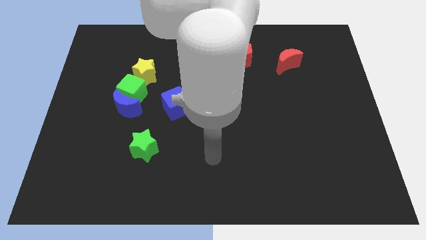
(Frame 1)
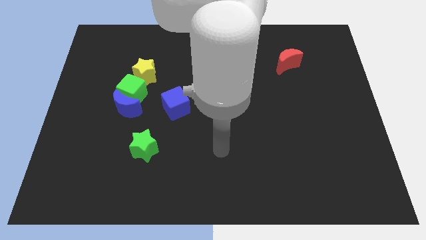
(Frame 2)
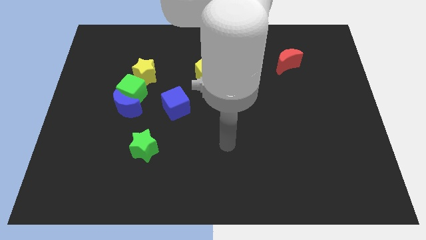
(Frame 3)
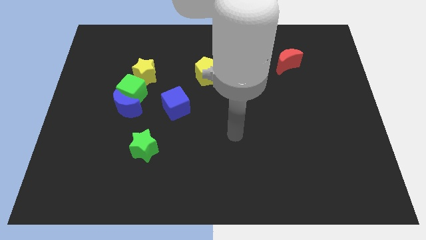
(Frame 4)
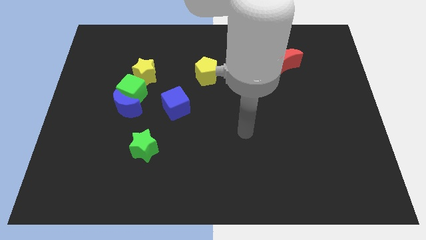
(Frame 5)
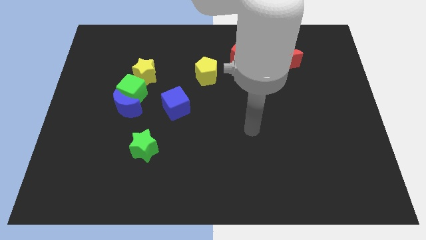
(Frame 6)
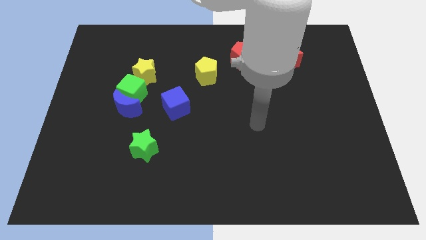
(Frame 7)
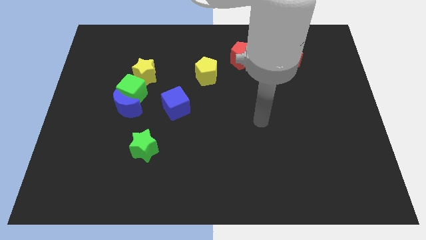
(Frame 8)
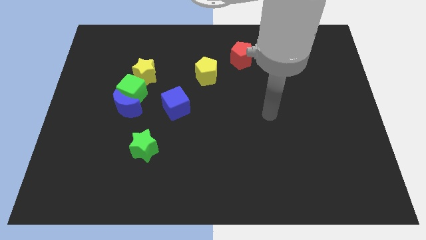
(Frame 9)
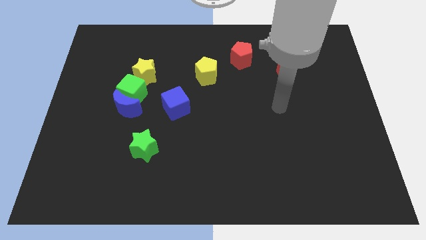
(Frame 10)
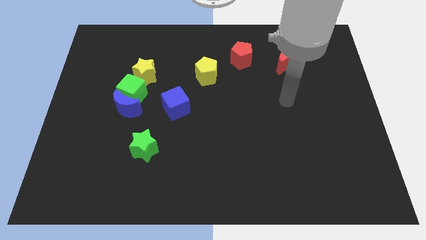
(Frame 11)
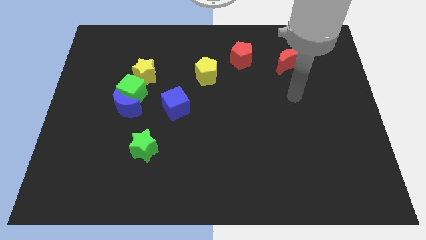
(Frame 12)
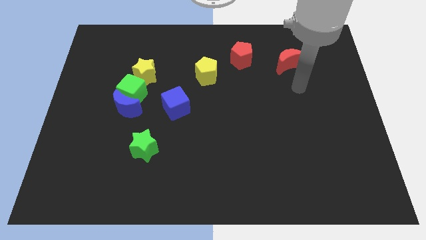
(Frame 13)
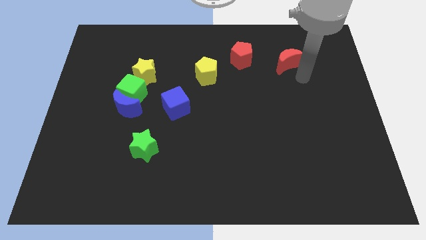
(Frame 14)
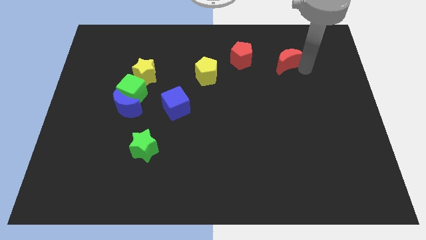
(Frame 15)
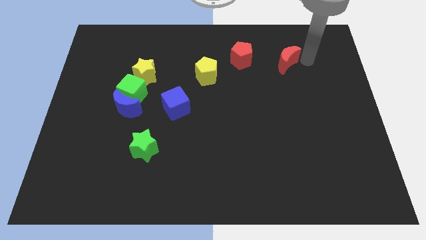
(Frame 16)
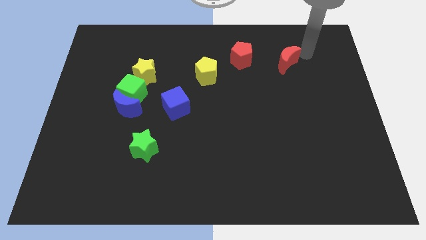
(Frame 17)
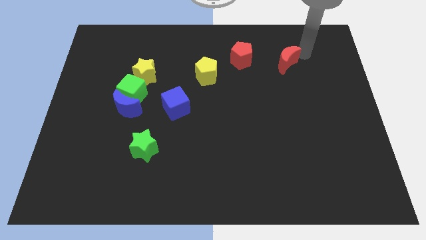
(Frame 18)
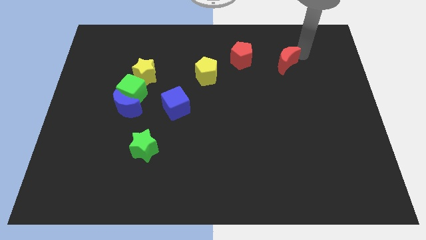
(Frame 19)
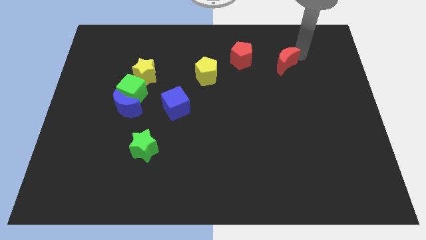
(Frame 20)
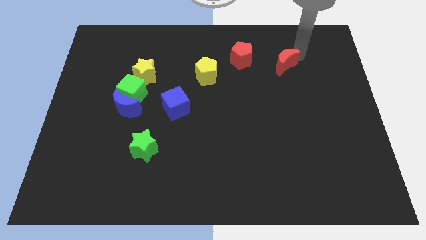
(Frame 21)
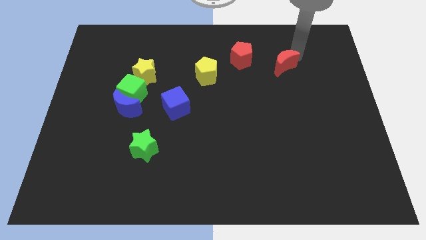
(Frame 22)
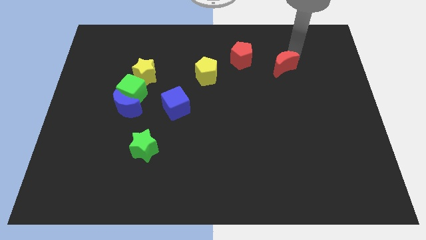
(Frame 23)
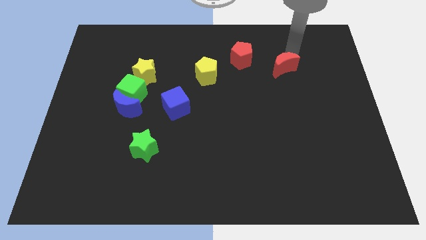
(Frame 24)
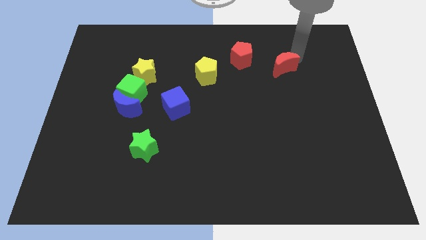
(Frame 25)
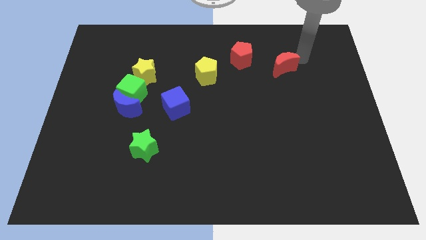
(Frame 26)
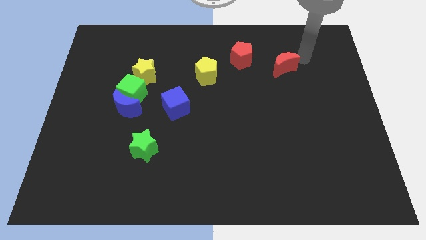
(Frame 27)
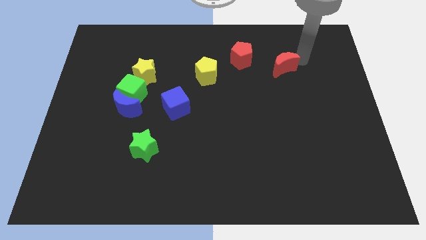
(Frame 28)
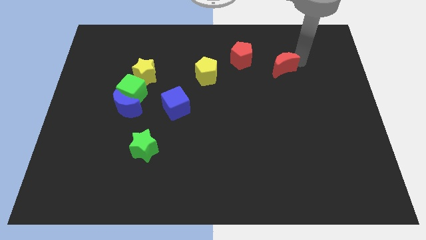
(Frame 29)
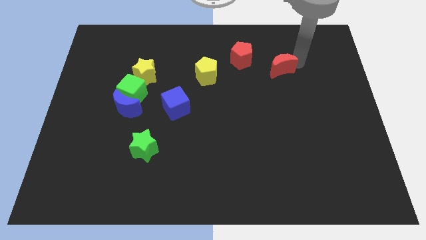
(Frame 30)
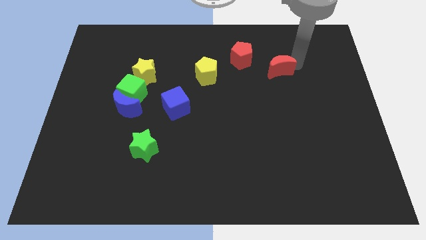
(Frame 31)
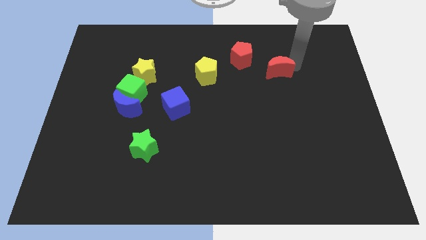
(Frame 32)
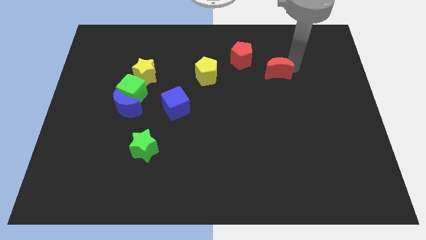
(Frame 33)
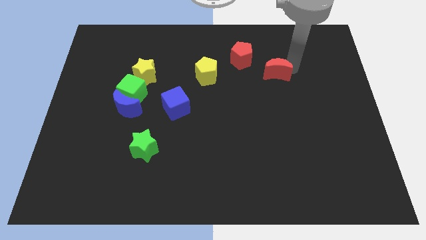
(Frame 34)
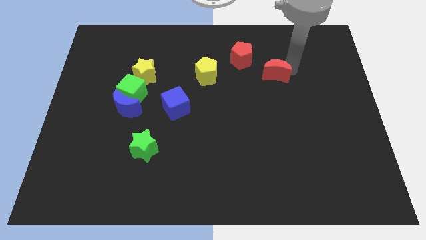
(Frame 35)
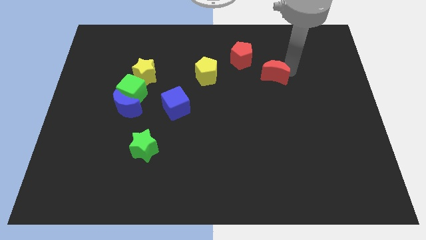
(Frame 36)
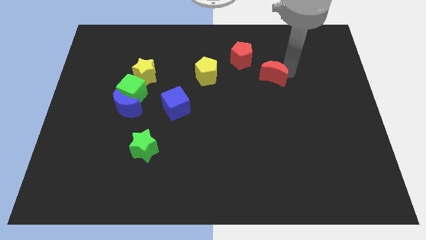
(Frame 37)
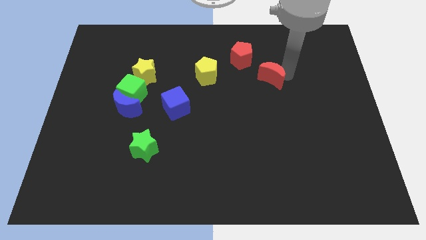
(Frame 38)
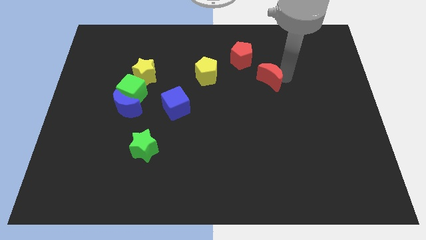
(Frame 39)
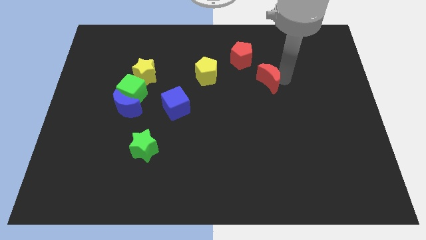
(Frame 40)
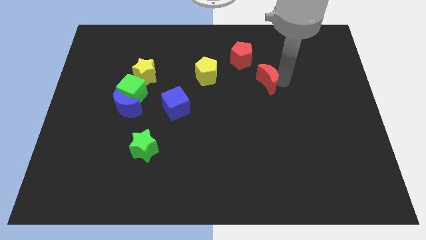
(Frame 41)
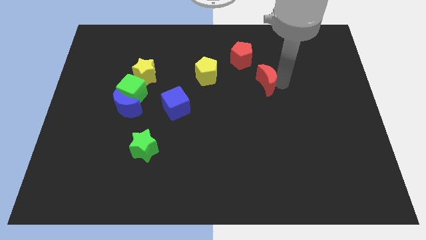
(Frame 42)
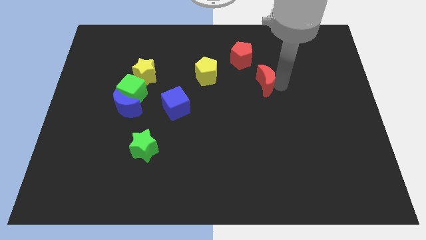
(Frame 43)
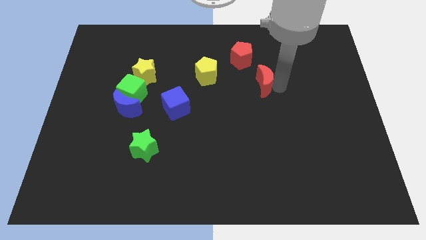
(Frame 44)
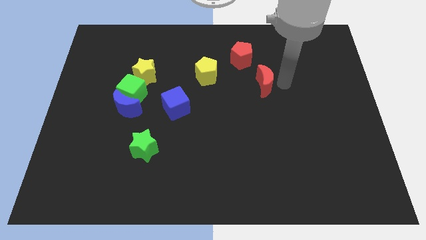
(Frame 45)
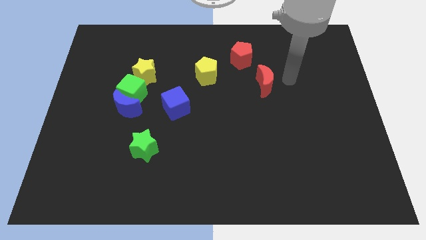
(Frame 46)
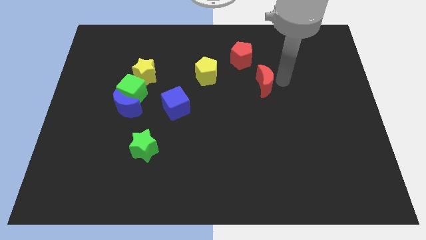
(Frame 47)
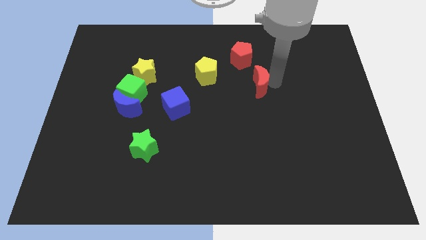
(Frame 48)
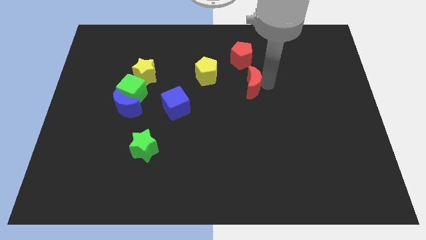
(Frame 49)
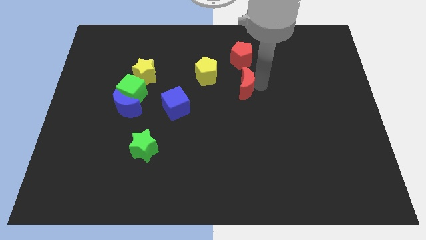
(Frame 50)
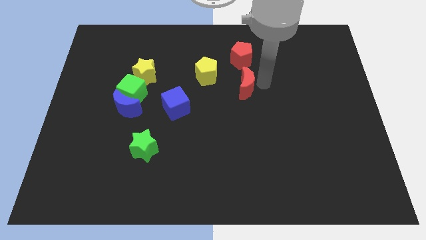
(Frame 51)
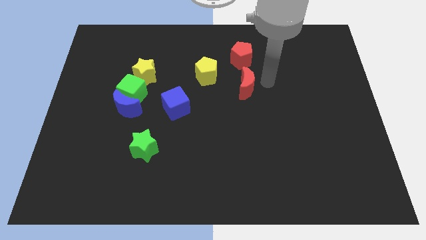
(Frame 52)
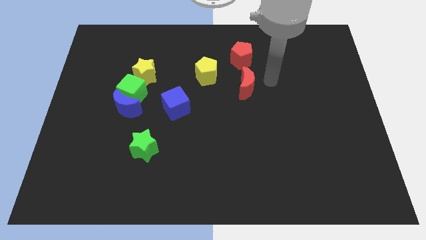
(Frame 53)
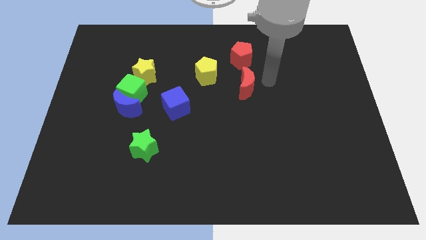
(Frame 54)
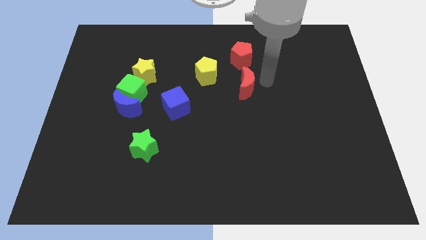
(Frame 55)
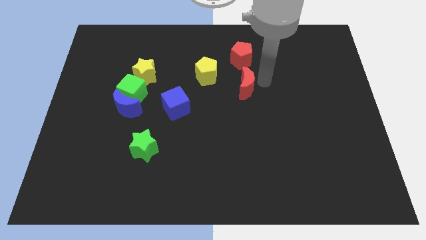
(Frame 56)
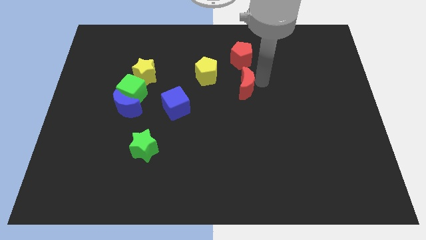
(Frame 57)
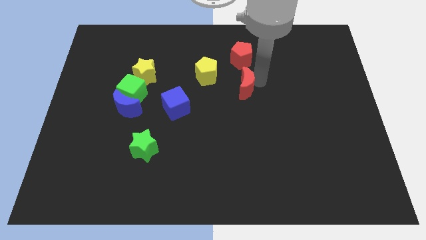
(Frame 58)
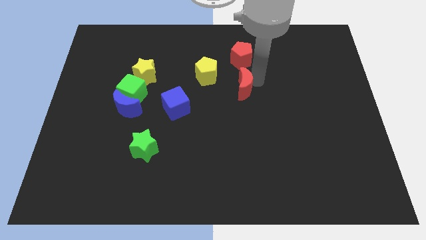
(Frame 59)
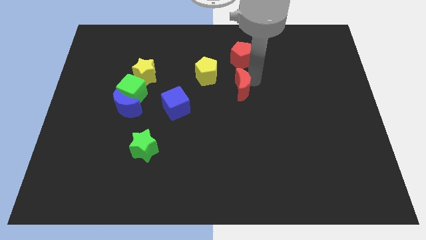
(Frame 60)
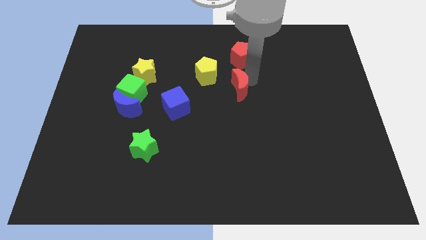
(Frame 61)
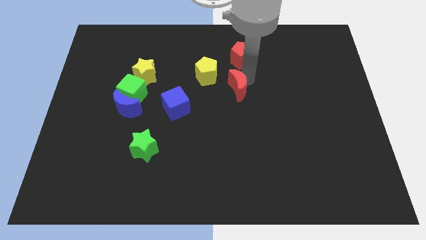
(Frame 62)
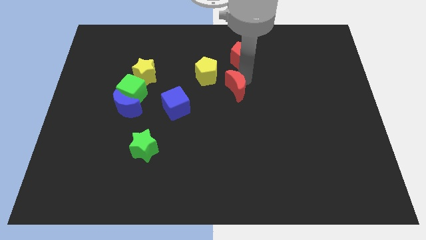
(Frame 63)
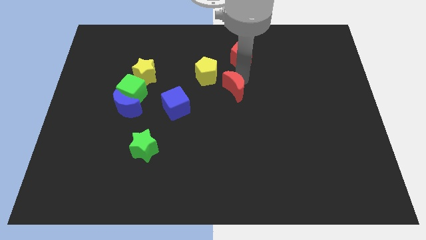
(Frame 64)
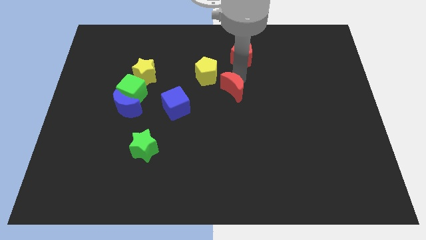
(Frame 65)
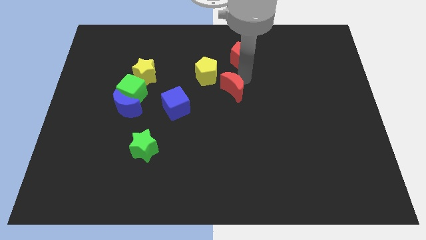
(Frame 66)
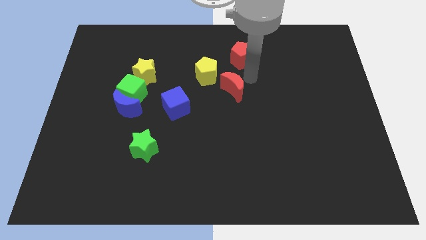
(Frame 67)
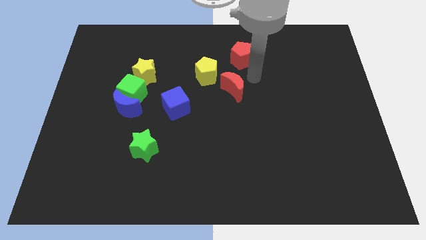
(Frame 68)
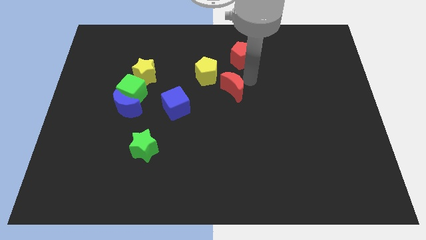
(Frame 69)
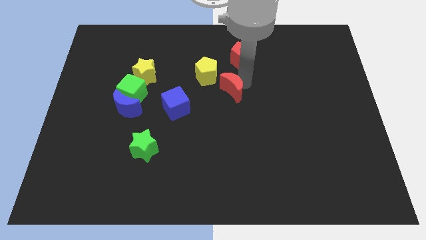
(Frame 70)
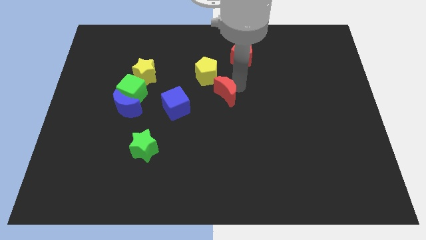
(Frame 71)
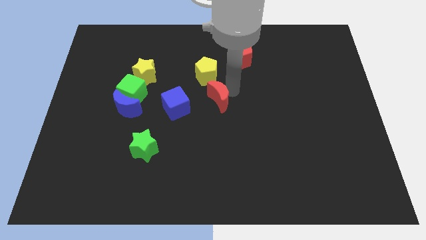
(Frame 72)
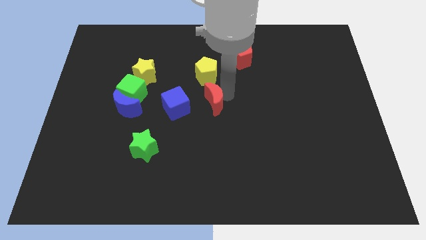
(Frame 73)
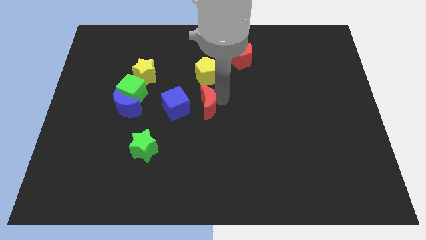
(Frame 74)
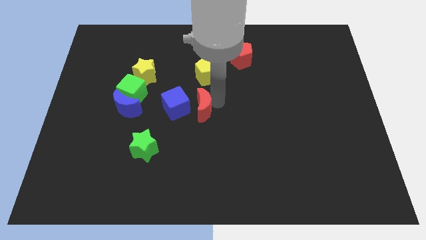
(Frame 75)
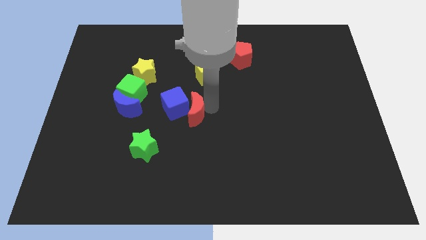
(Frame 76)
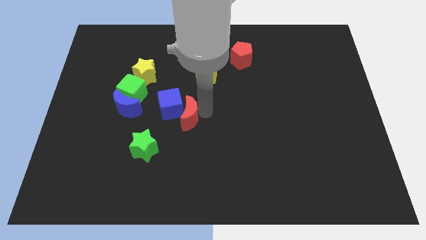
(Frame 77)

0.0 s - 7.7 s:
put the red moon to the right of the blue moon

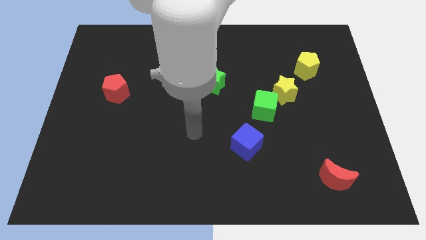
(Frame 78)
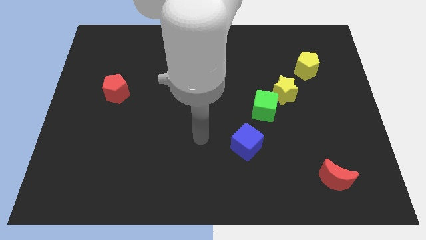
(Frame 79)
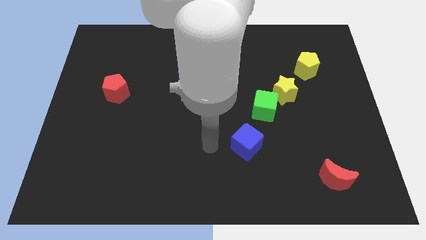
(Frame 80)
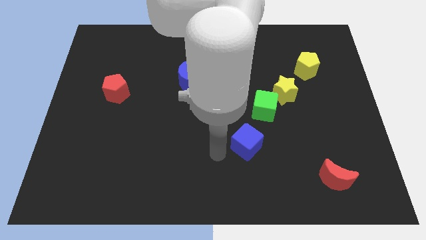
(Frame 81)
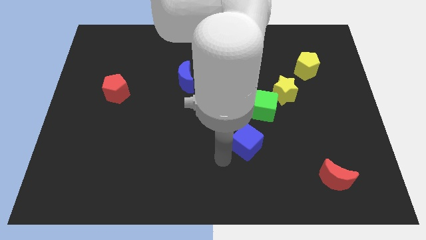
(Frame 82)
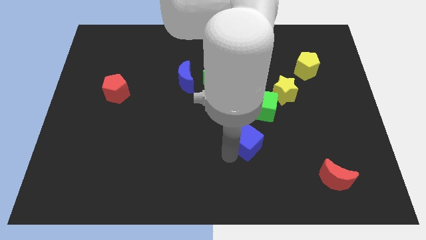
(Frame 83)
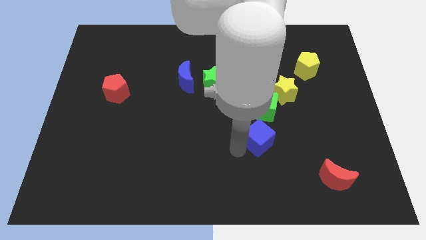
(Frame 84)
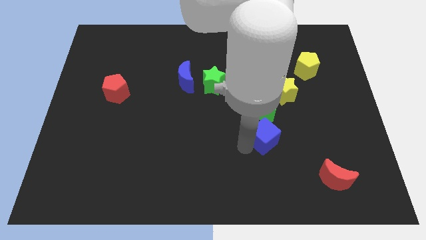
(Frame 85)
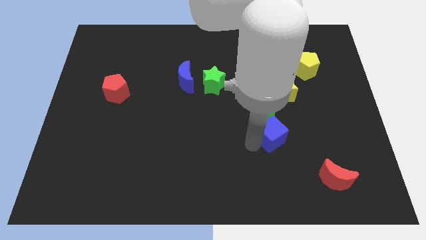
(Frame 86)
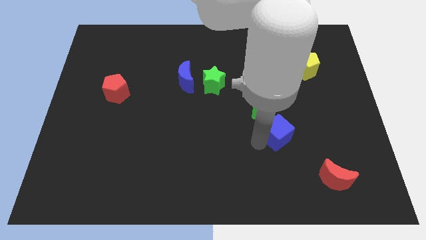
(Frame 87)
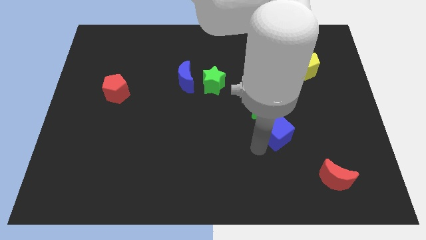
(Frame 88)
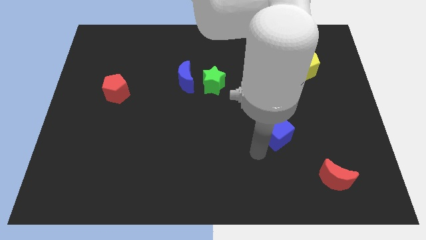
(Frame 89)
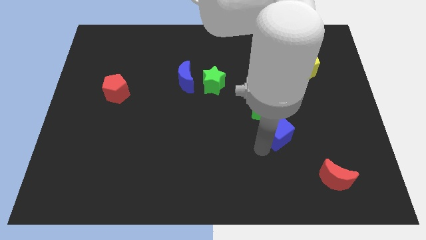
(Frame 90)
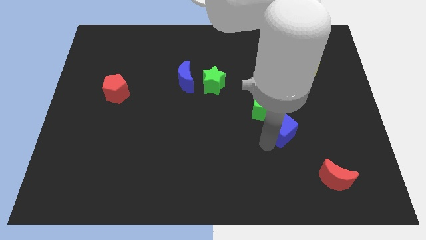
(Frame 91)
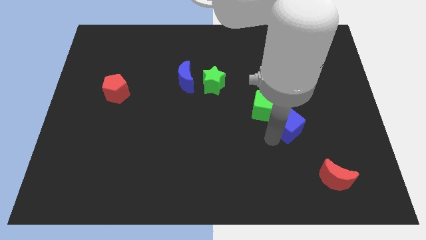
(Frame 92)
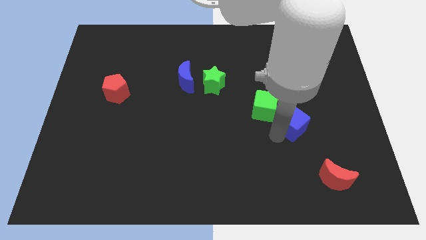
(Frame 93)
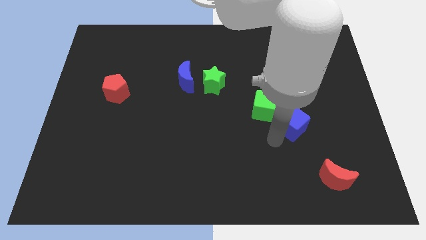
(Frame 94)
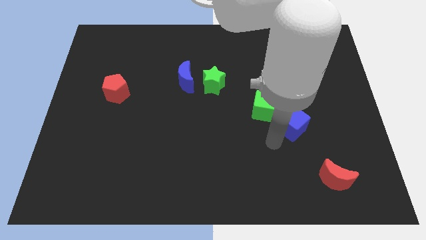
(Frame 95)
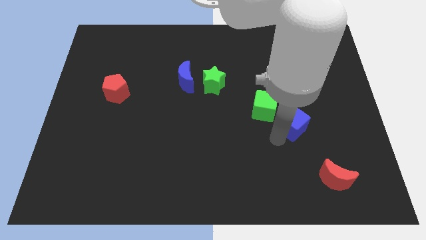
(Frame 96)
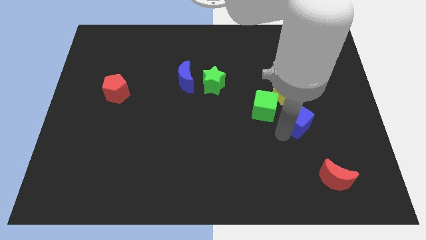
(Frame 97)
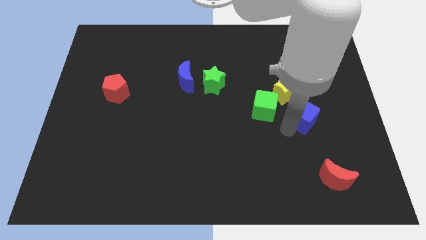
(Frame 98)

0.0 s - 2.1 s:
put the blue cube to the bottom right side of the yellow star
